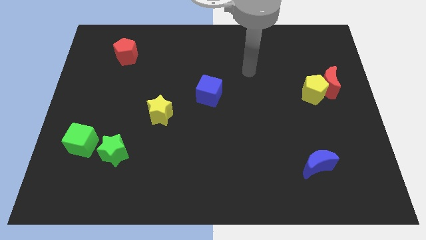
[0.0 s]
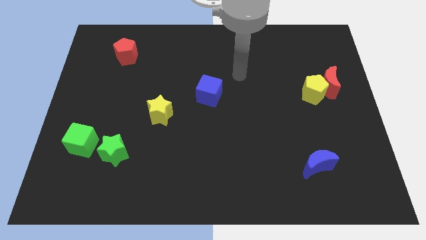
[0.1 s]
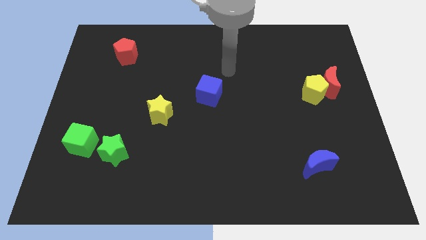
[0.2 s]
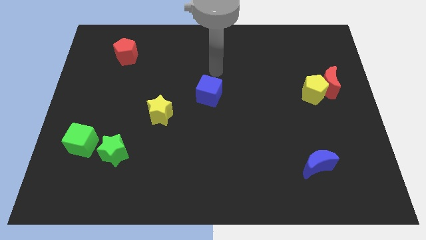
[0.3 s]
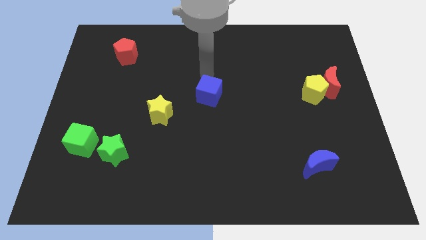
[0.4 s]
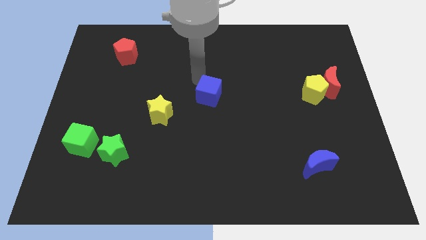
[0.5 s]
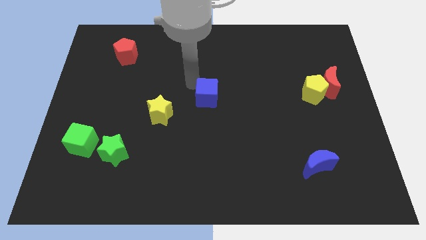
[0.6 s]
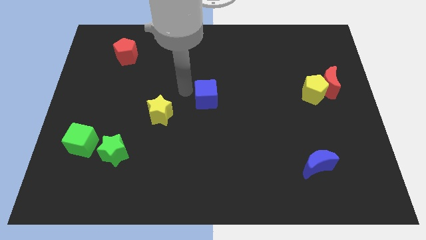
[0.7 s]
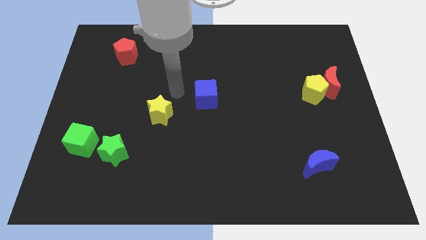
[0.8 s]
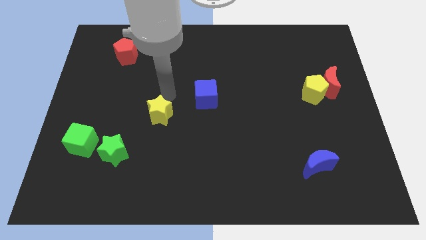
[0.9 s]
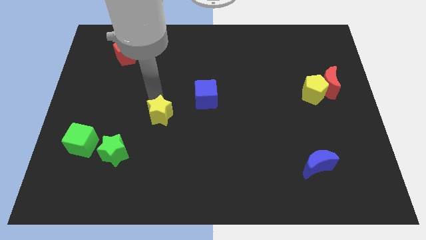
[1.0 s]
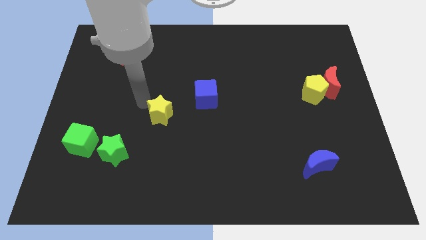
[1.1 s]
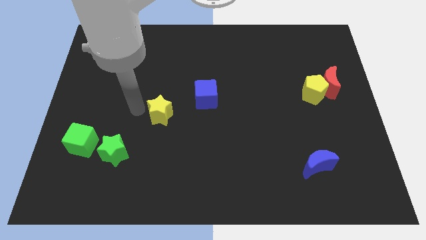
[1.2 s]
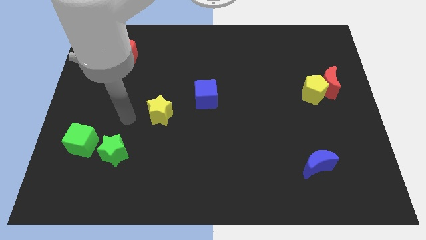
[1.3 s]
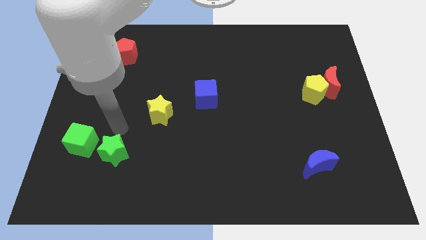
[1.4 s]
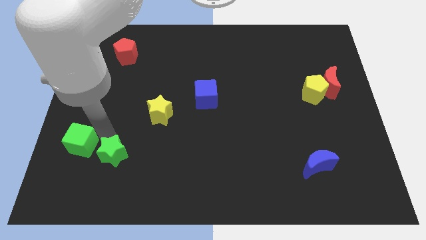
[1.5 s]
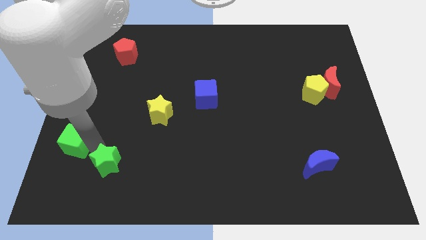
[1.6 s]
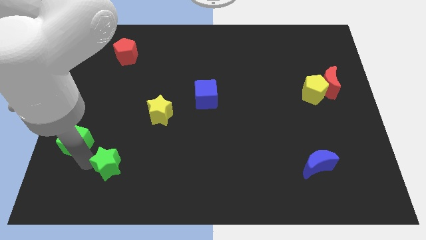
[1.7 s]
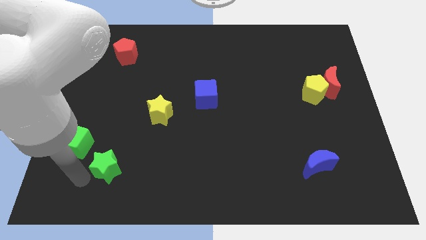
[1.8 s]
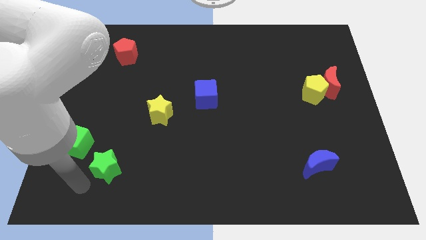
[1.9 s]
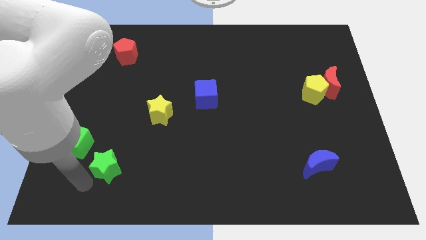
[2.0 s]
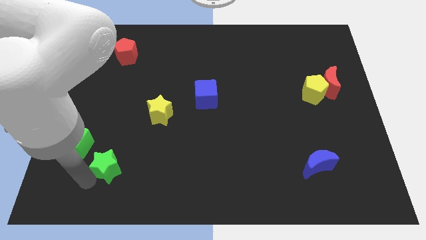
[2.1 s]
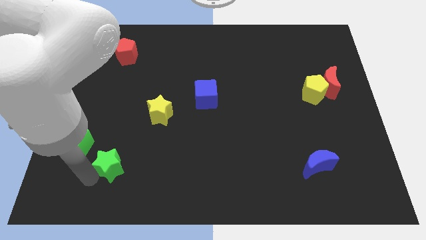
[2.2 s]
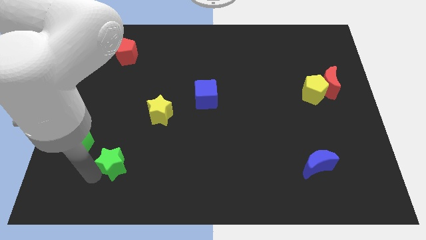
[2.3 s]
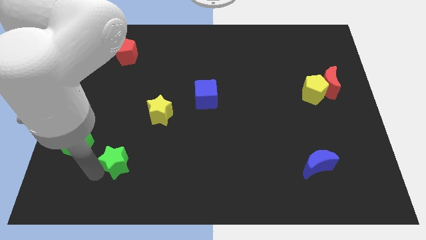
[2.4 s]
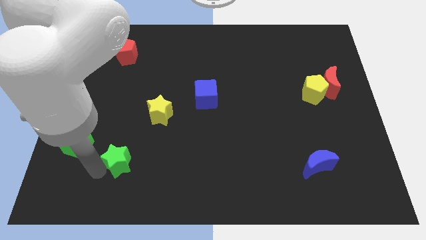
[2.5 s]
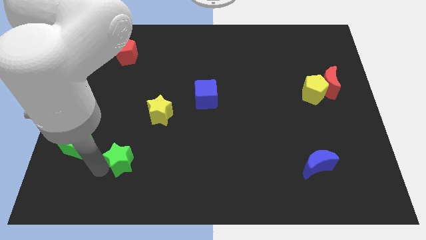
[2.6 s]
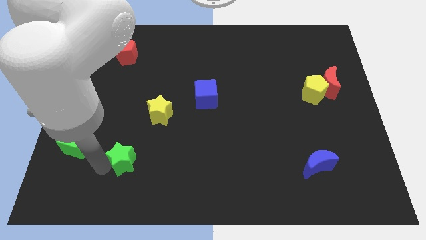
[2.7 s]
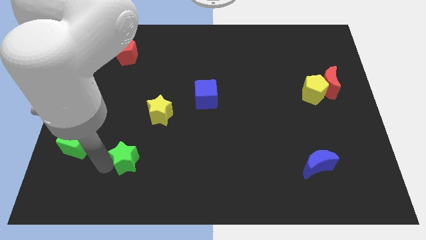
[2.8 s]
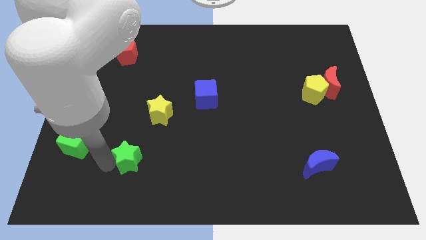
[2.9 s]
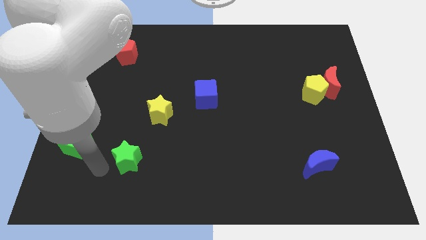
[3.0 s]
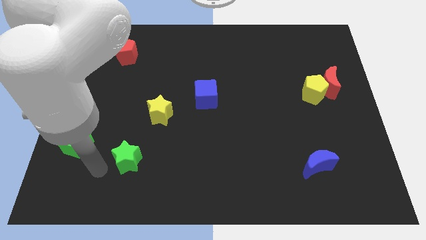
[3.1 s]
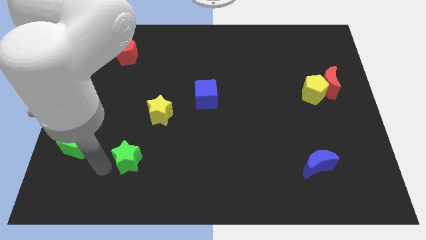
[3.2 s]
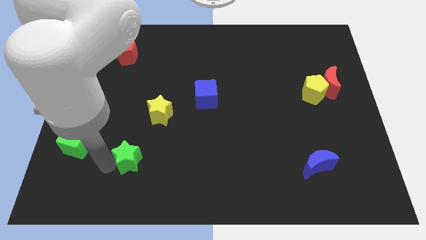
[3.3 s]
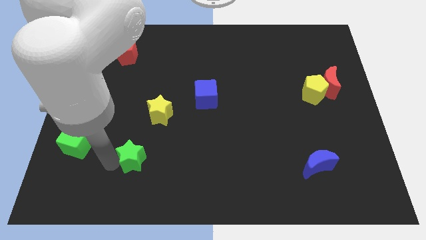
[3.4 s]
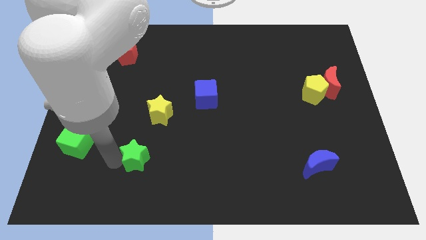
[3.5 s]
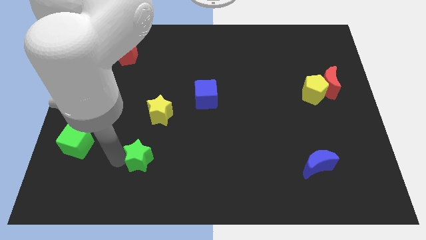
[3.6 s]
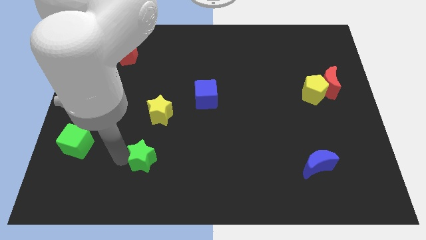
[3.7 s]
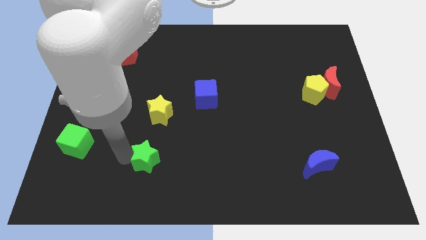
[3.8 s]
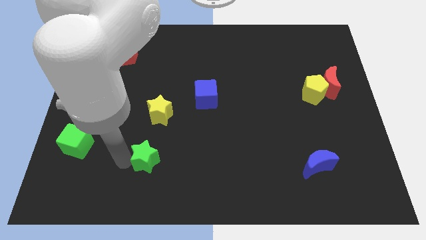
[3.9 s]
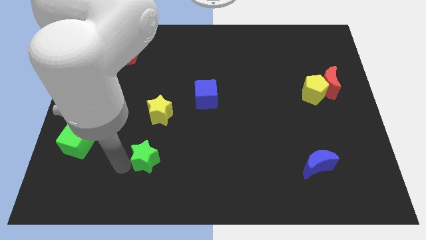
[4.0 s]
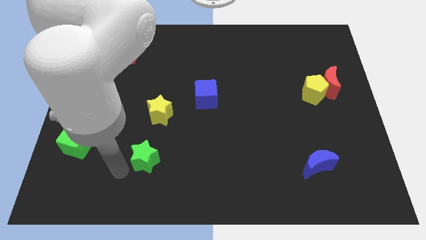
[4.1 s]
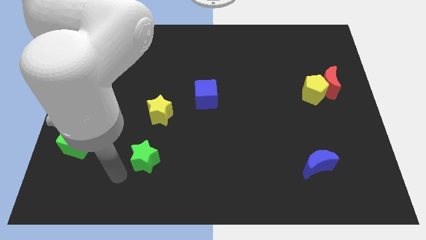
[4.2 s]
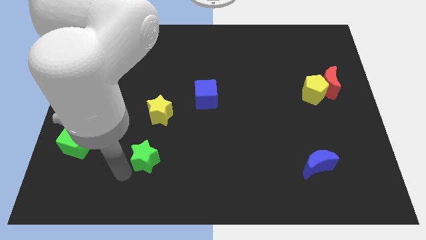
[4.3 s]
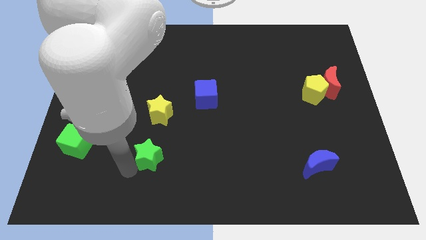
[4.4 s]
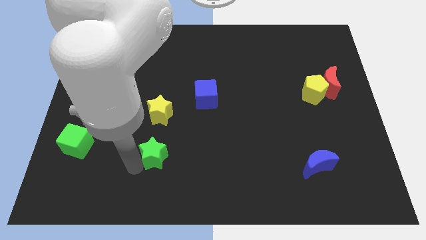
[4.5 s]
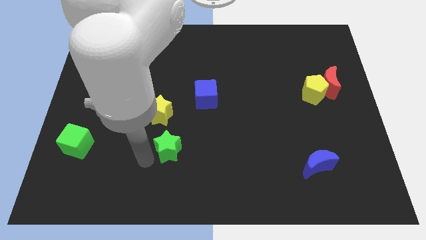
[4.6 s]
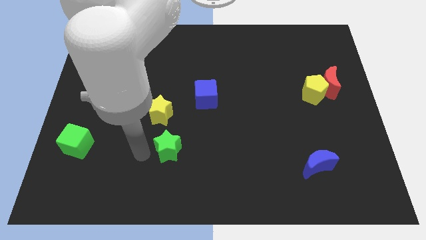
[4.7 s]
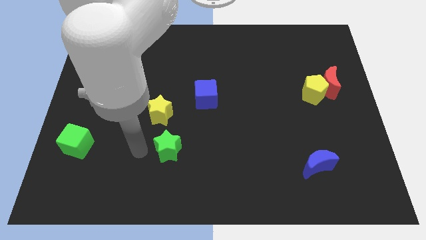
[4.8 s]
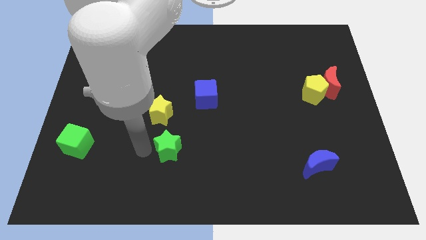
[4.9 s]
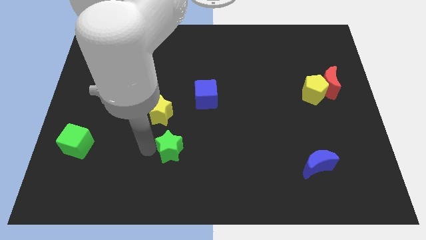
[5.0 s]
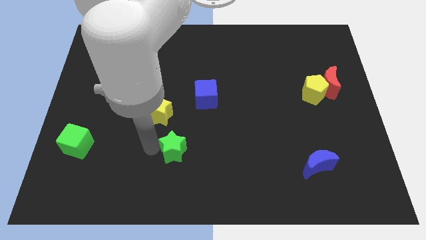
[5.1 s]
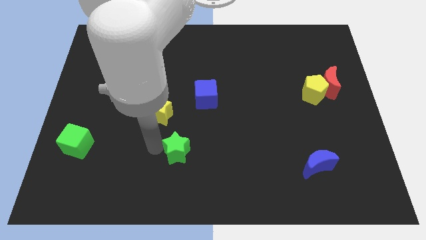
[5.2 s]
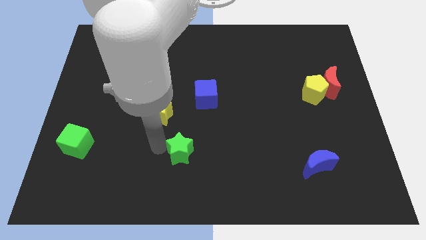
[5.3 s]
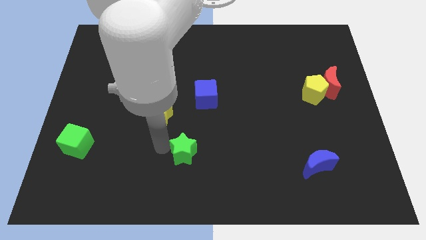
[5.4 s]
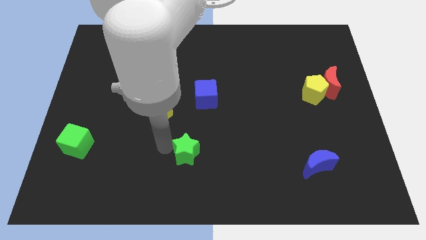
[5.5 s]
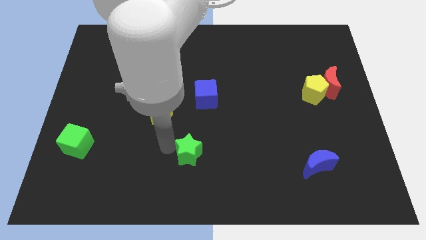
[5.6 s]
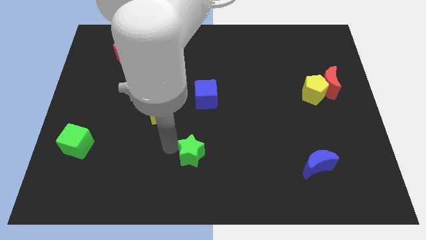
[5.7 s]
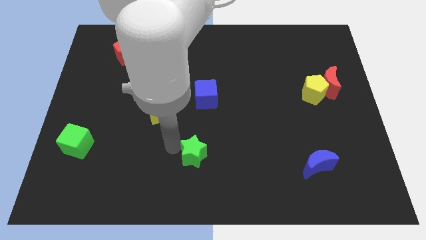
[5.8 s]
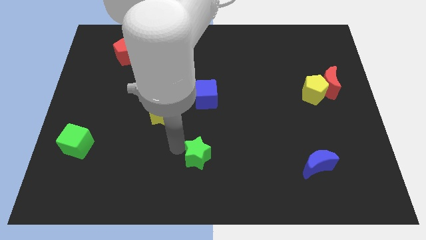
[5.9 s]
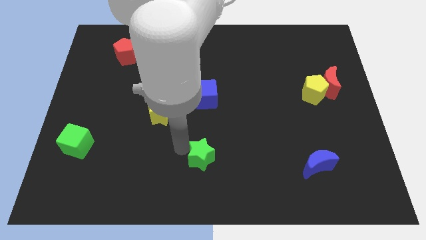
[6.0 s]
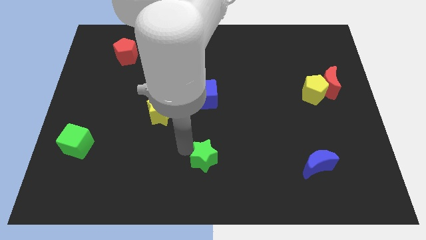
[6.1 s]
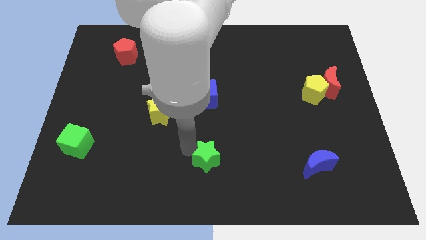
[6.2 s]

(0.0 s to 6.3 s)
push the green star right

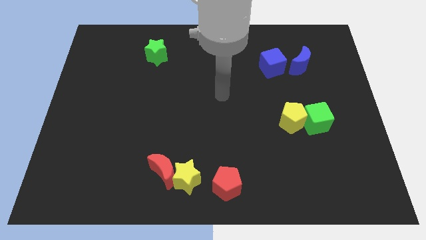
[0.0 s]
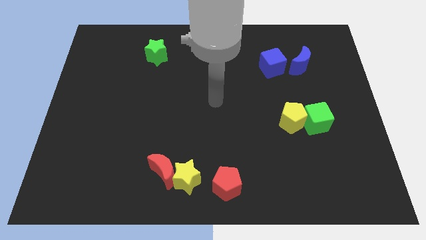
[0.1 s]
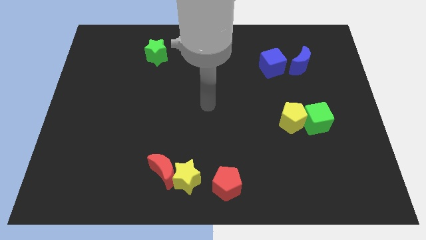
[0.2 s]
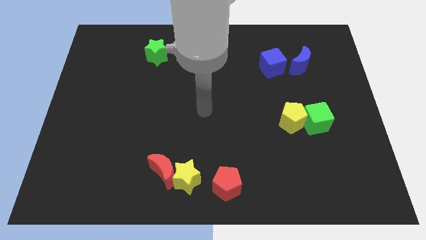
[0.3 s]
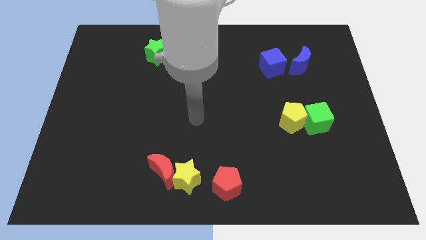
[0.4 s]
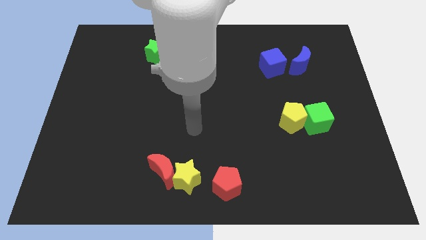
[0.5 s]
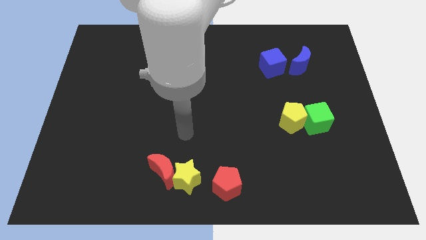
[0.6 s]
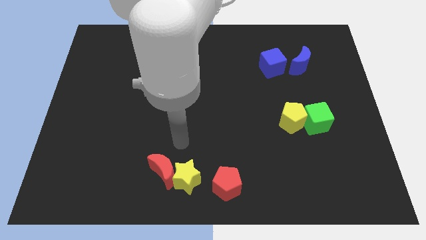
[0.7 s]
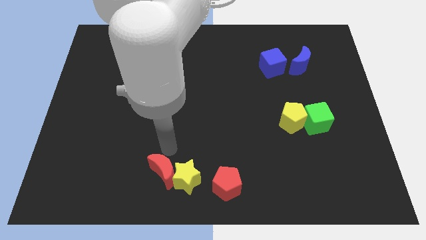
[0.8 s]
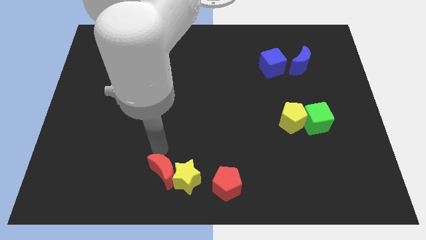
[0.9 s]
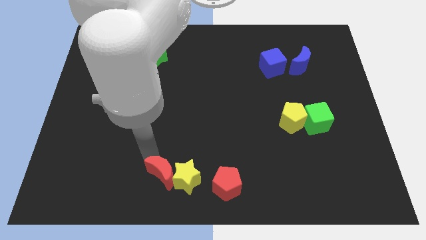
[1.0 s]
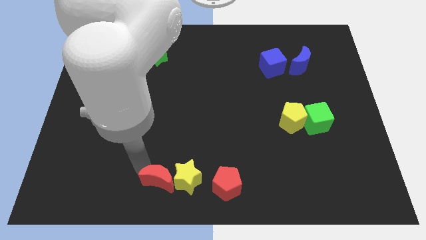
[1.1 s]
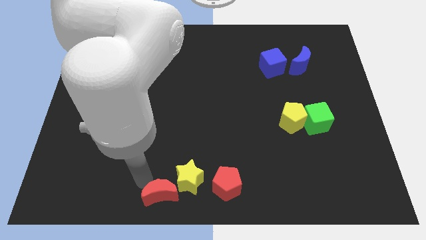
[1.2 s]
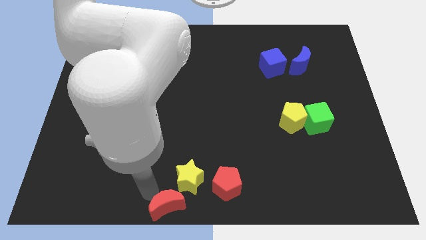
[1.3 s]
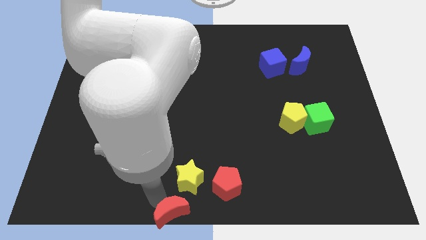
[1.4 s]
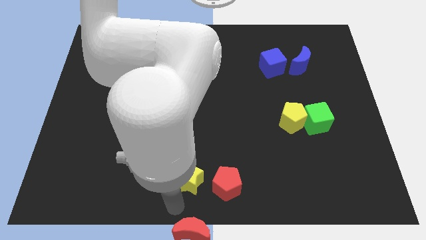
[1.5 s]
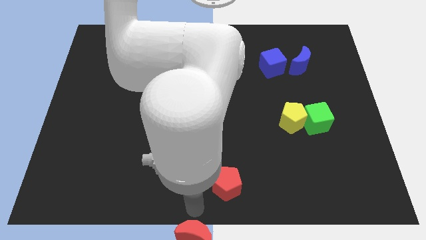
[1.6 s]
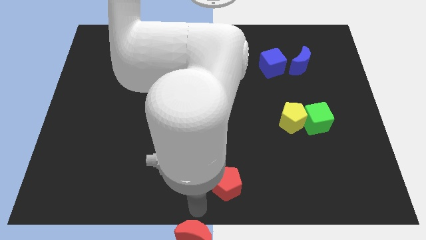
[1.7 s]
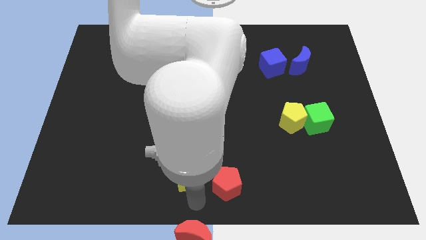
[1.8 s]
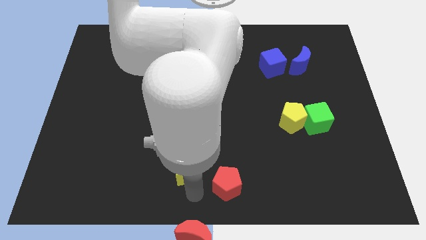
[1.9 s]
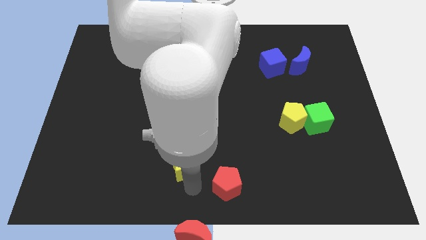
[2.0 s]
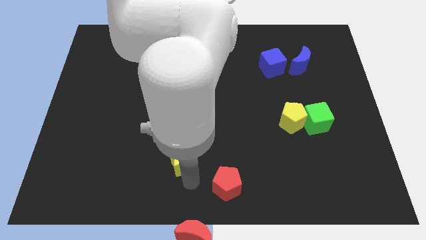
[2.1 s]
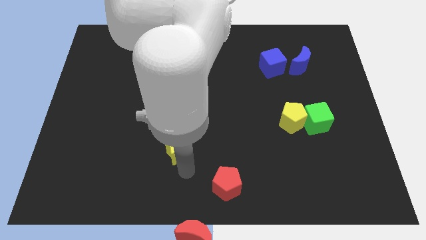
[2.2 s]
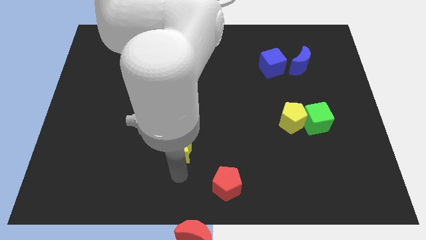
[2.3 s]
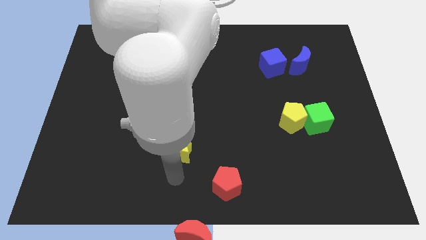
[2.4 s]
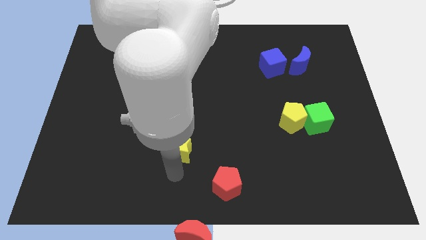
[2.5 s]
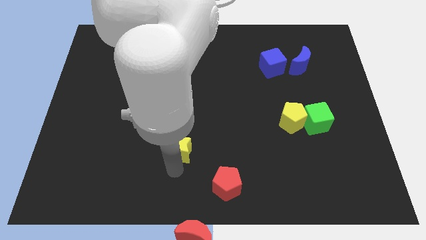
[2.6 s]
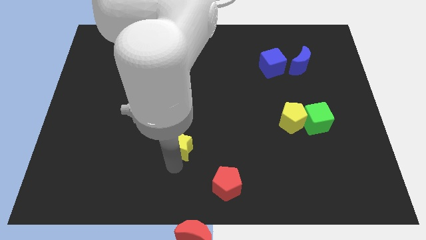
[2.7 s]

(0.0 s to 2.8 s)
slide the yellow star upwards slightly
